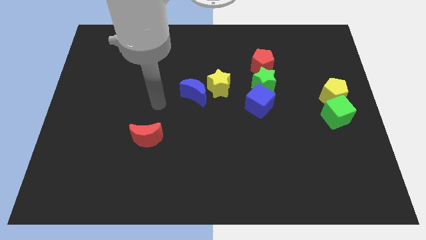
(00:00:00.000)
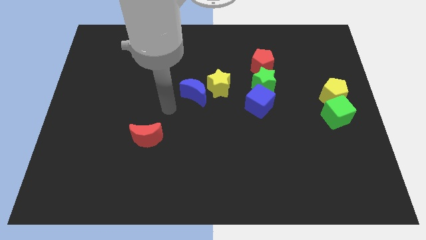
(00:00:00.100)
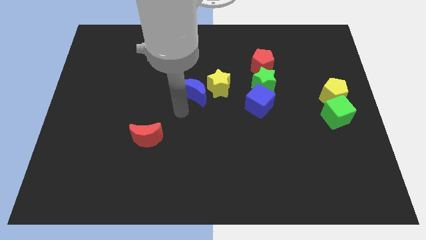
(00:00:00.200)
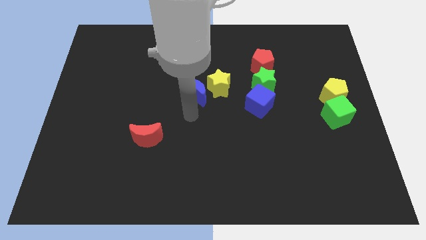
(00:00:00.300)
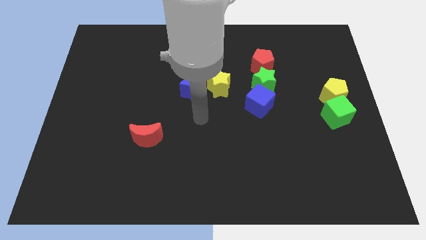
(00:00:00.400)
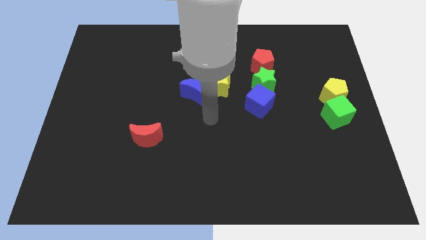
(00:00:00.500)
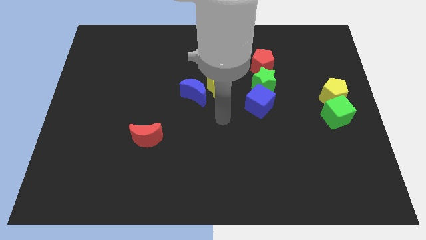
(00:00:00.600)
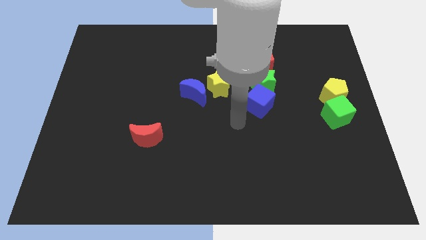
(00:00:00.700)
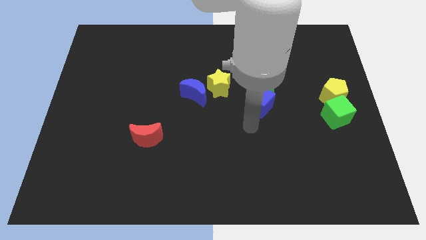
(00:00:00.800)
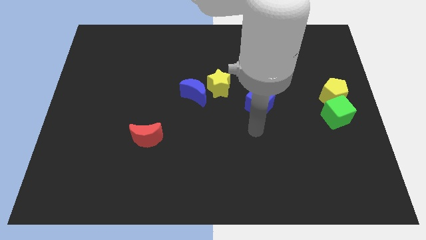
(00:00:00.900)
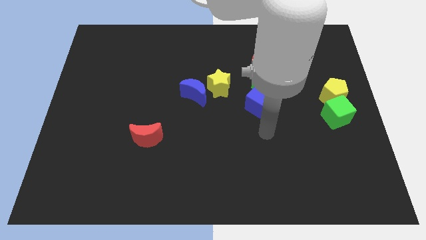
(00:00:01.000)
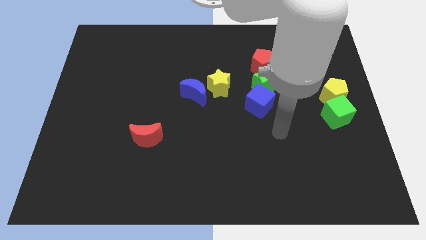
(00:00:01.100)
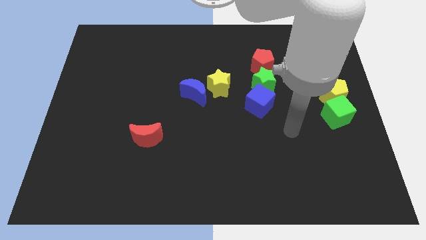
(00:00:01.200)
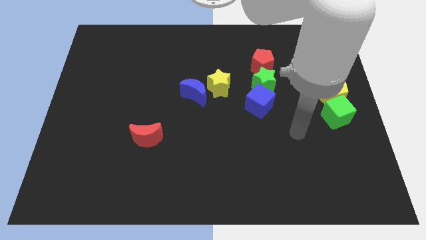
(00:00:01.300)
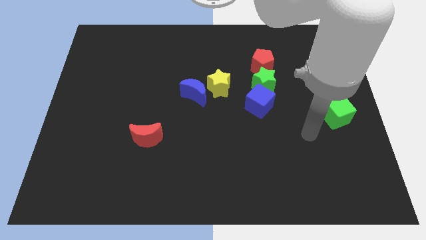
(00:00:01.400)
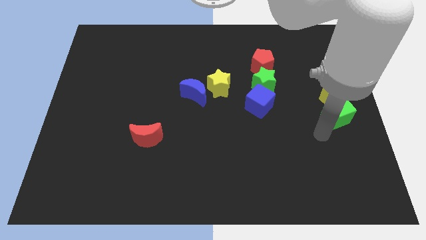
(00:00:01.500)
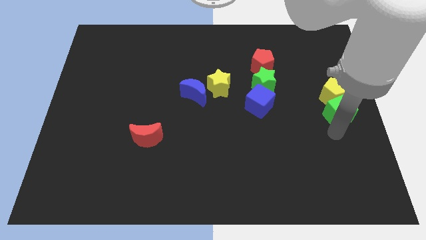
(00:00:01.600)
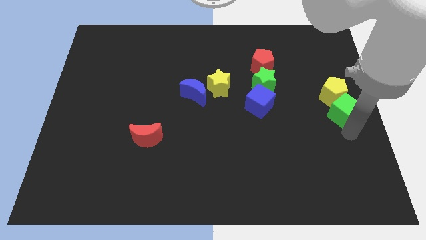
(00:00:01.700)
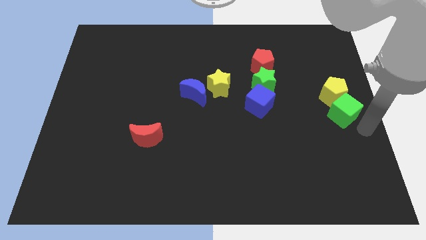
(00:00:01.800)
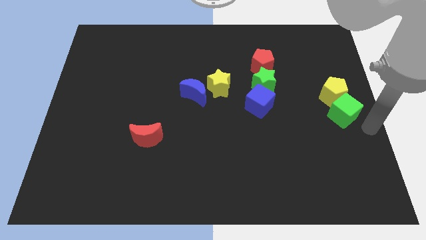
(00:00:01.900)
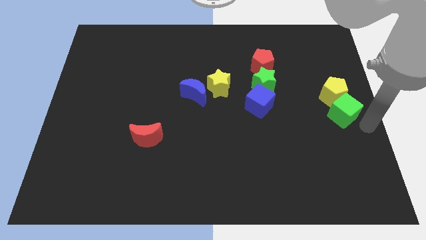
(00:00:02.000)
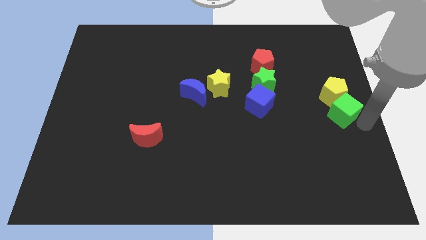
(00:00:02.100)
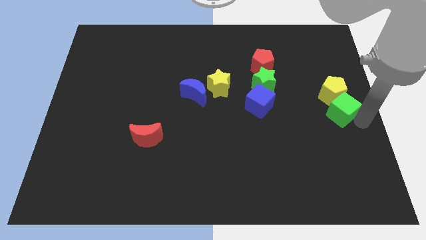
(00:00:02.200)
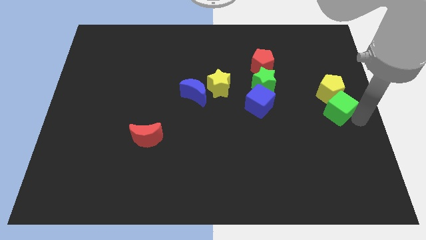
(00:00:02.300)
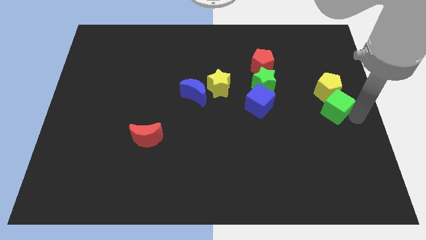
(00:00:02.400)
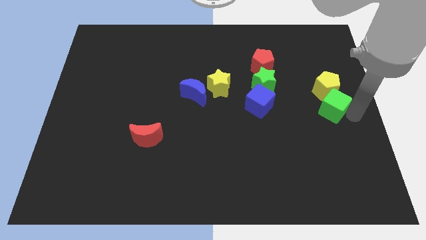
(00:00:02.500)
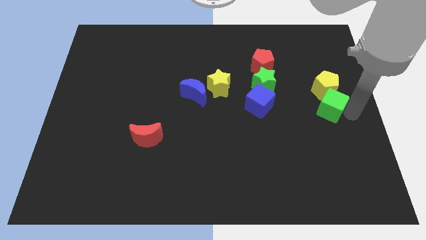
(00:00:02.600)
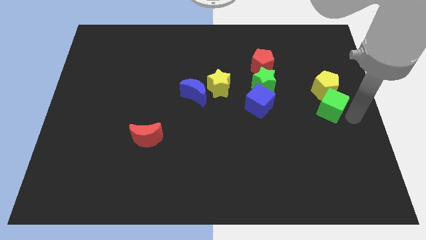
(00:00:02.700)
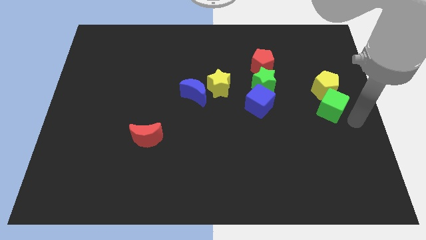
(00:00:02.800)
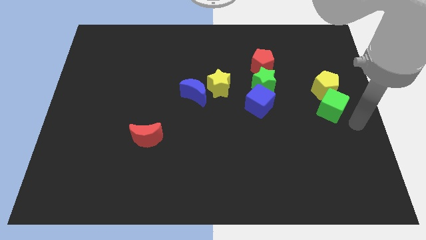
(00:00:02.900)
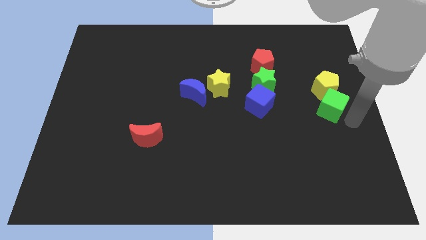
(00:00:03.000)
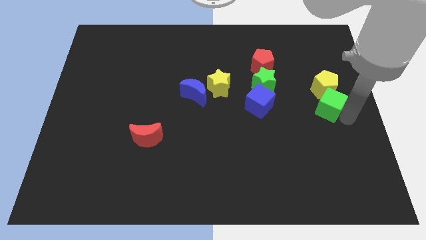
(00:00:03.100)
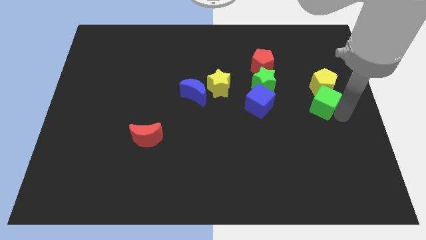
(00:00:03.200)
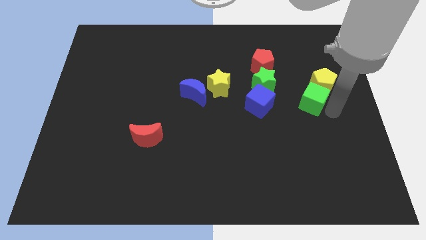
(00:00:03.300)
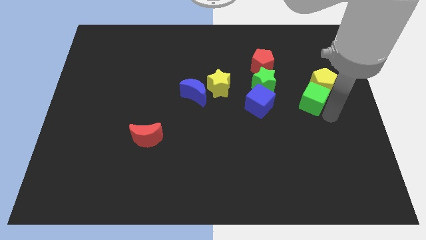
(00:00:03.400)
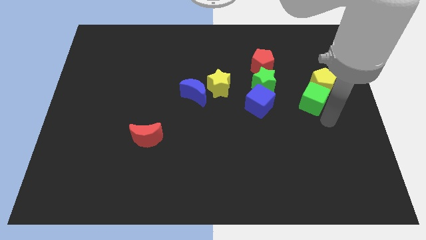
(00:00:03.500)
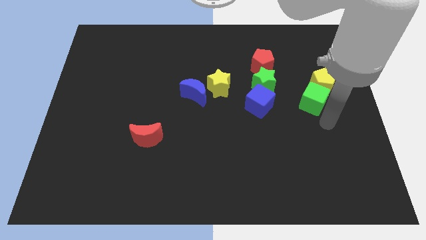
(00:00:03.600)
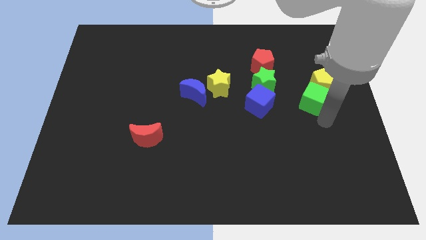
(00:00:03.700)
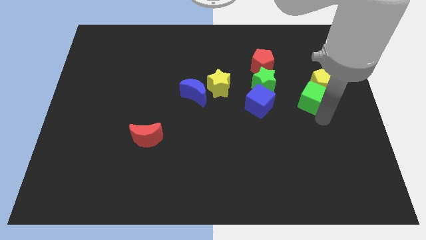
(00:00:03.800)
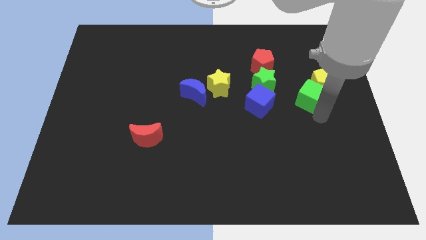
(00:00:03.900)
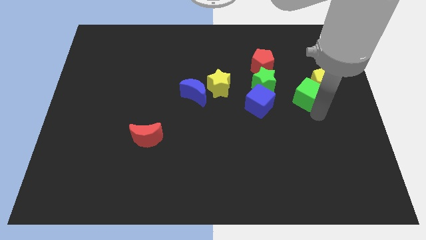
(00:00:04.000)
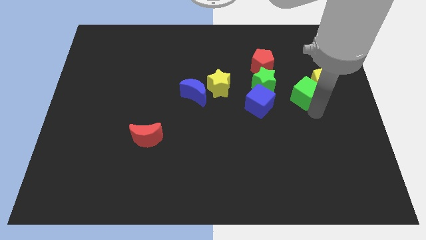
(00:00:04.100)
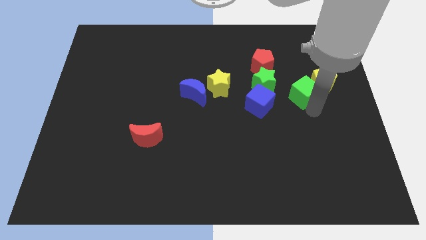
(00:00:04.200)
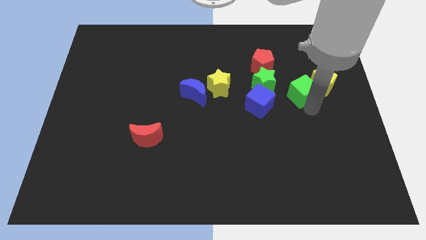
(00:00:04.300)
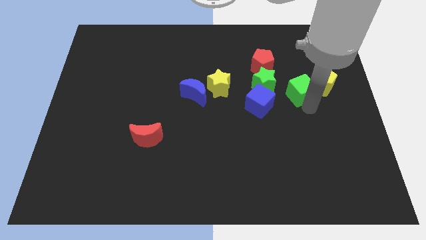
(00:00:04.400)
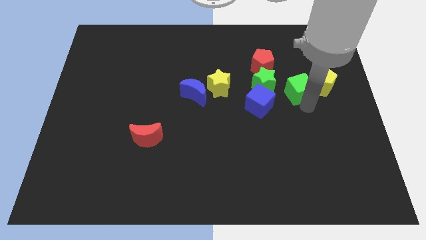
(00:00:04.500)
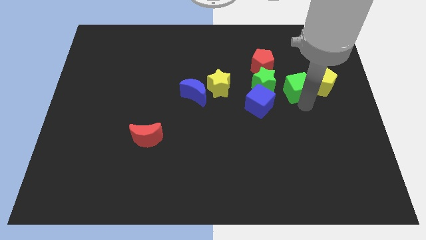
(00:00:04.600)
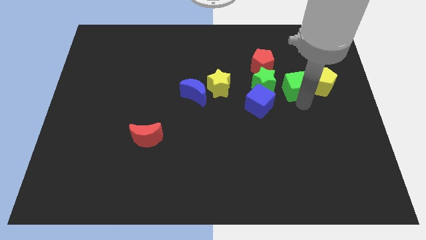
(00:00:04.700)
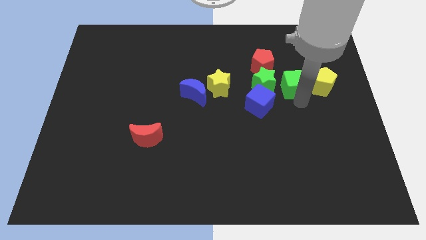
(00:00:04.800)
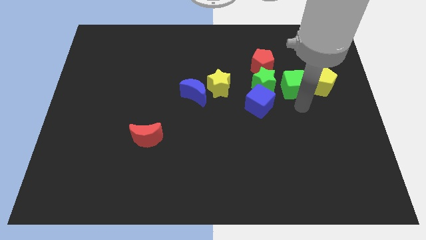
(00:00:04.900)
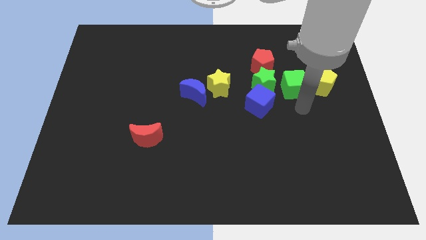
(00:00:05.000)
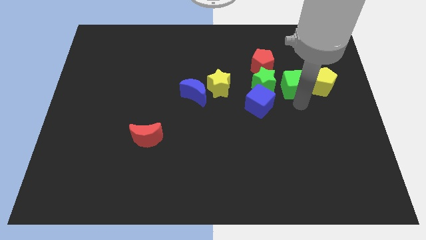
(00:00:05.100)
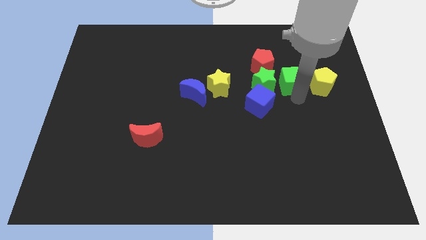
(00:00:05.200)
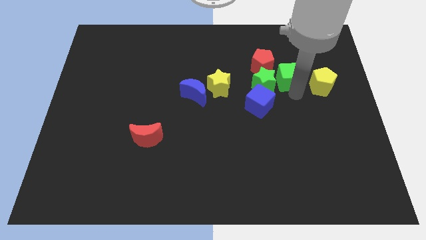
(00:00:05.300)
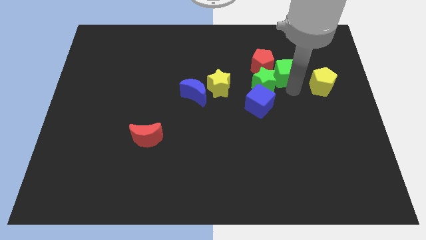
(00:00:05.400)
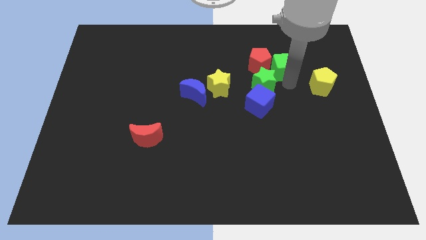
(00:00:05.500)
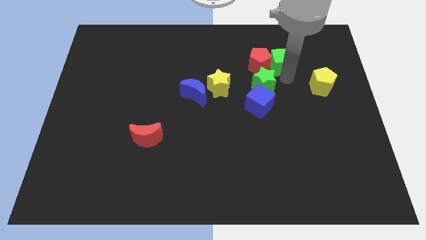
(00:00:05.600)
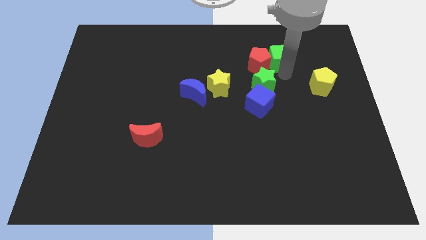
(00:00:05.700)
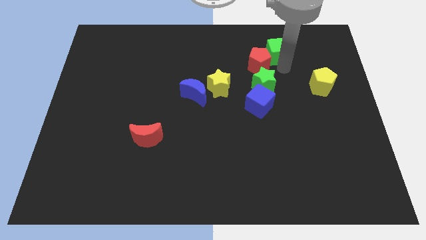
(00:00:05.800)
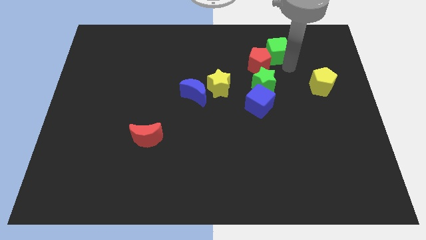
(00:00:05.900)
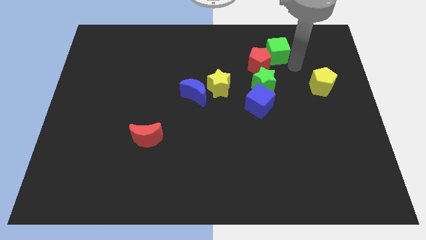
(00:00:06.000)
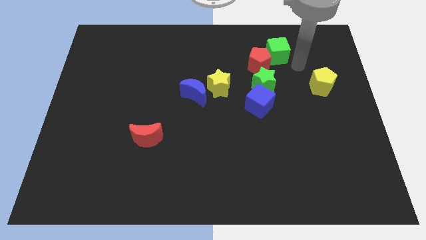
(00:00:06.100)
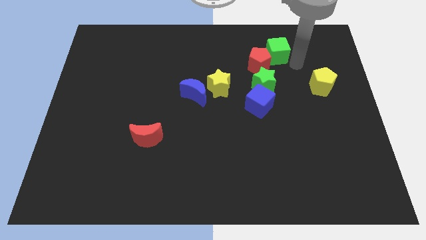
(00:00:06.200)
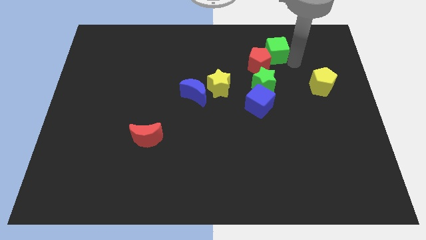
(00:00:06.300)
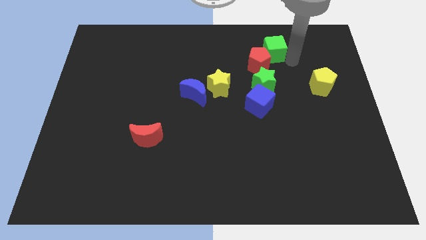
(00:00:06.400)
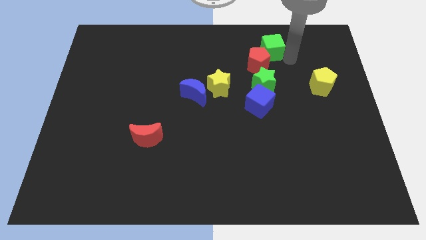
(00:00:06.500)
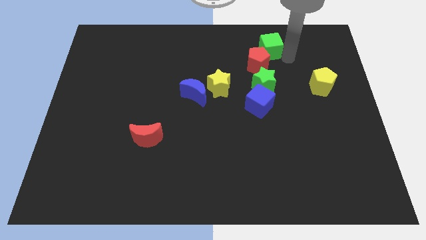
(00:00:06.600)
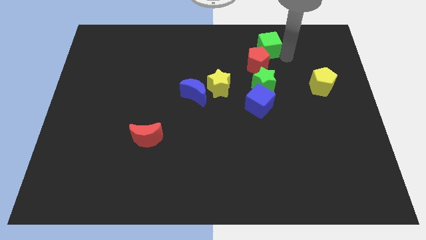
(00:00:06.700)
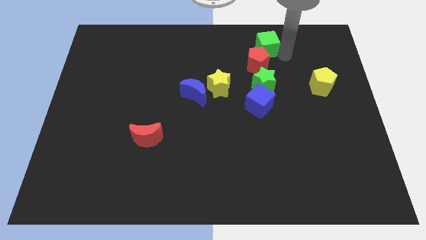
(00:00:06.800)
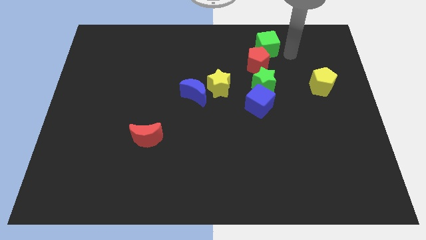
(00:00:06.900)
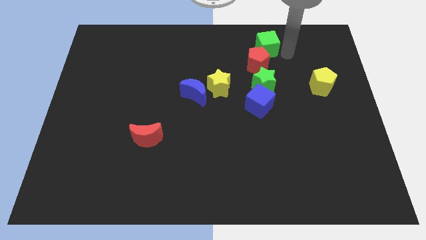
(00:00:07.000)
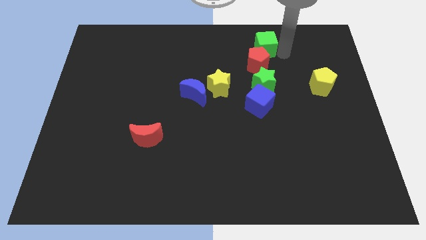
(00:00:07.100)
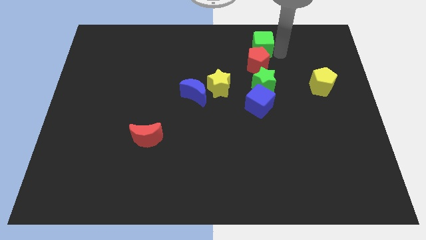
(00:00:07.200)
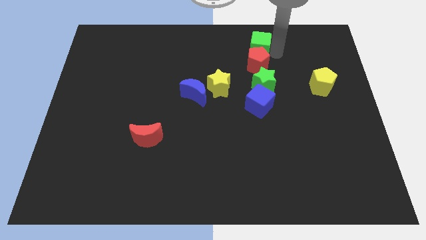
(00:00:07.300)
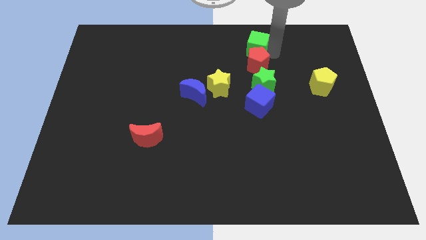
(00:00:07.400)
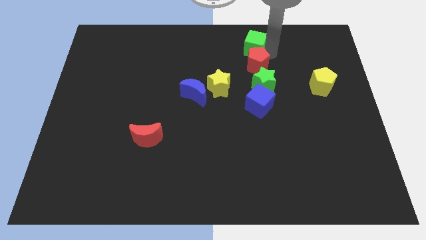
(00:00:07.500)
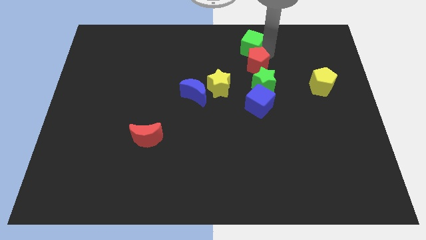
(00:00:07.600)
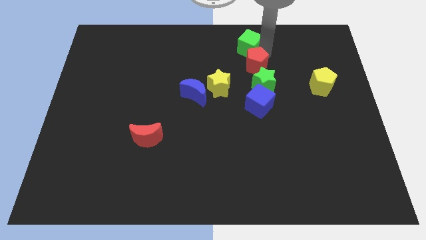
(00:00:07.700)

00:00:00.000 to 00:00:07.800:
push the green cube to the top side
